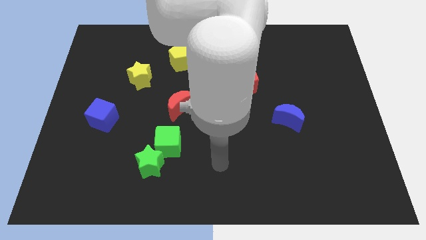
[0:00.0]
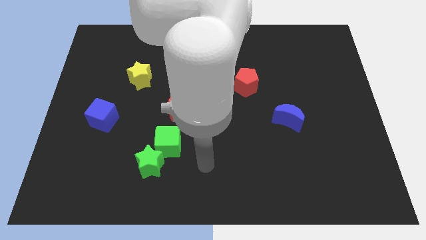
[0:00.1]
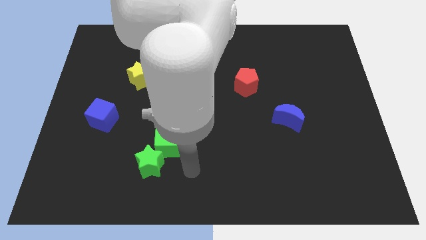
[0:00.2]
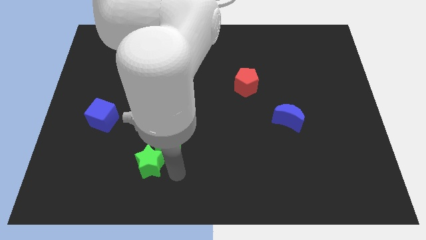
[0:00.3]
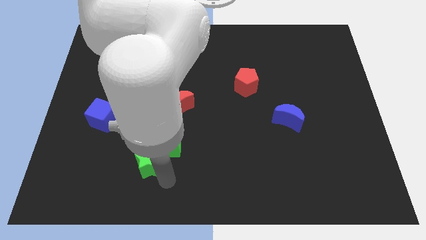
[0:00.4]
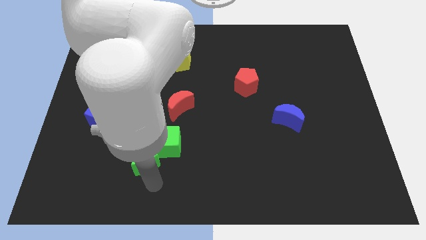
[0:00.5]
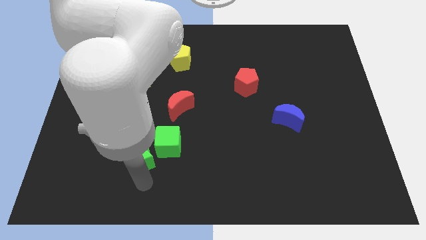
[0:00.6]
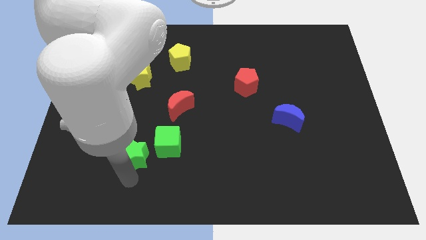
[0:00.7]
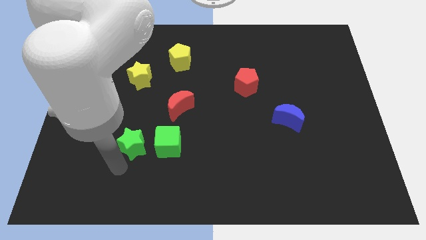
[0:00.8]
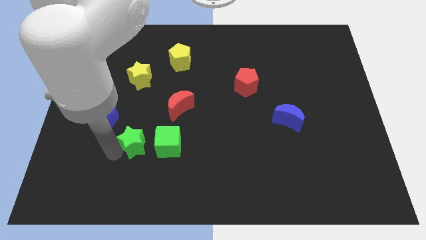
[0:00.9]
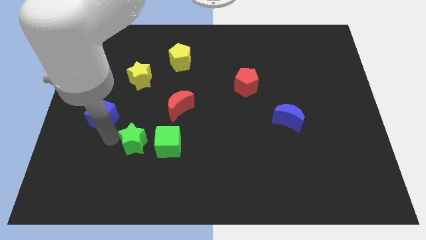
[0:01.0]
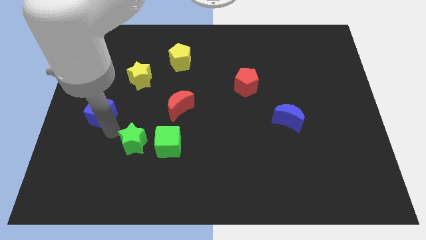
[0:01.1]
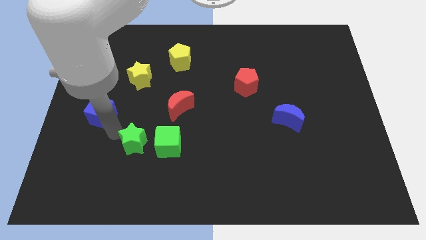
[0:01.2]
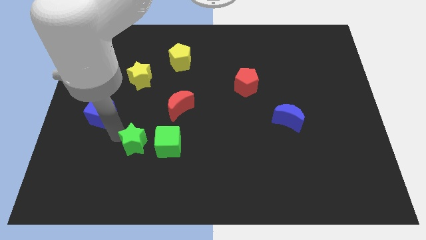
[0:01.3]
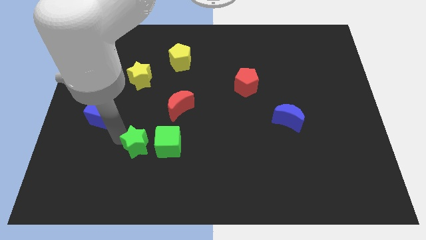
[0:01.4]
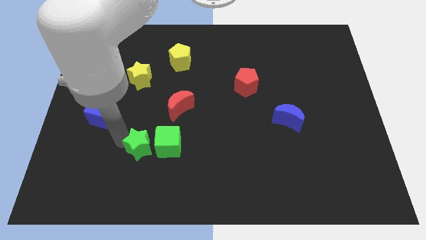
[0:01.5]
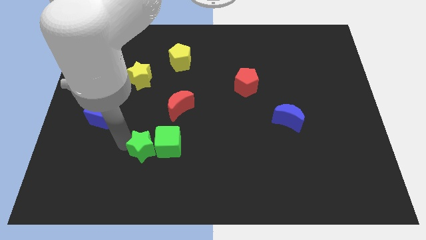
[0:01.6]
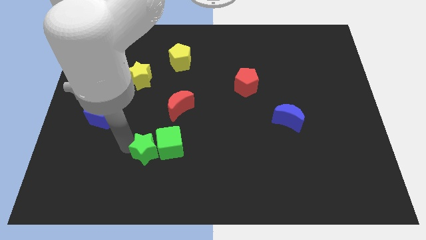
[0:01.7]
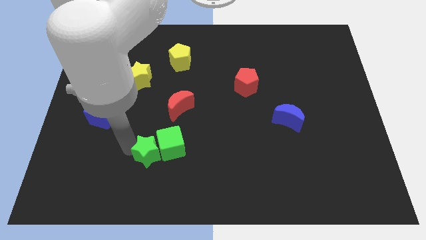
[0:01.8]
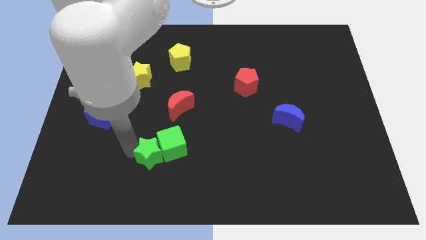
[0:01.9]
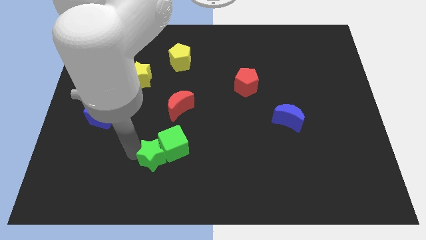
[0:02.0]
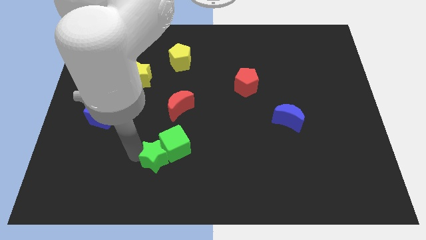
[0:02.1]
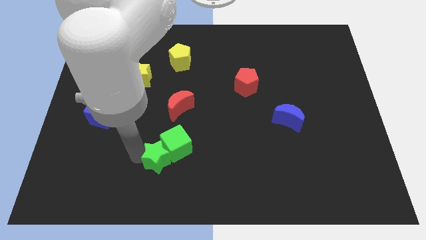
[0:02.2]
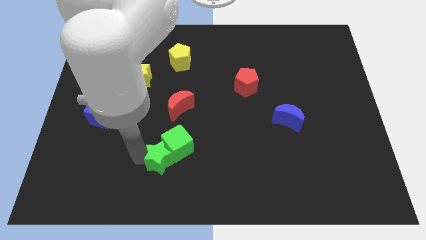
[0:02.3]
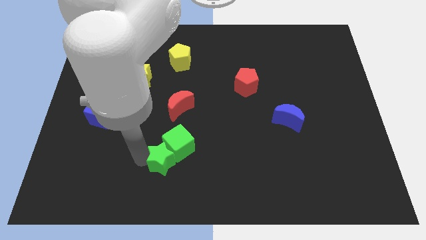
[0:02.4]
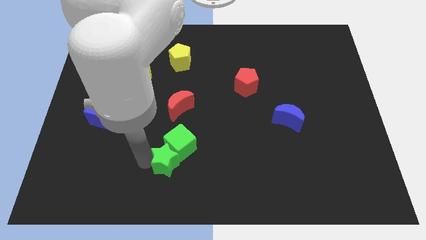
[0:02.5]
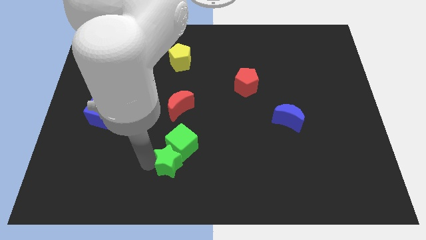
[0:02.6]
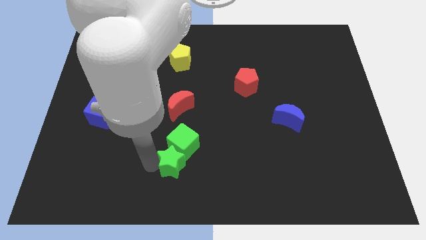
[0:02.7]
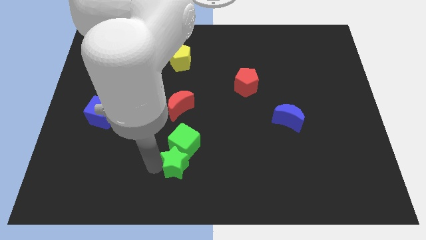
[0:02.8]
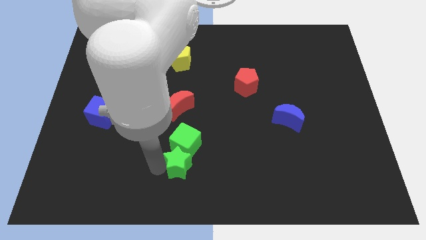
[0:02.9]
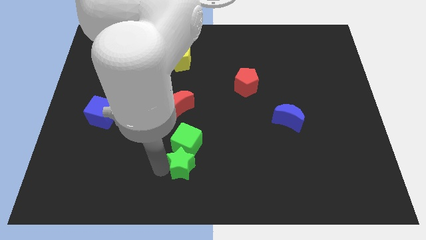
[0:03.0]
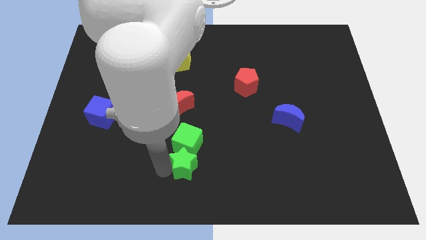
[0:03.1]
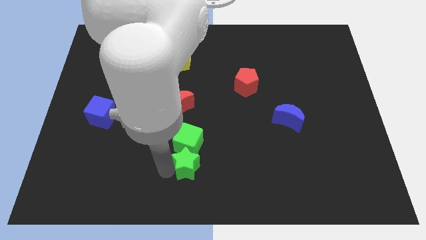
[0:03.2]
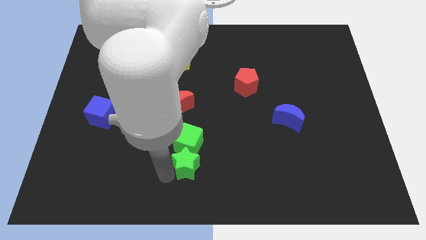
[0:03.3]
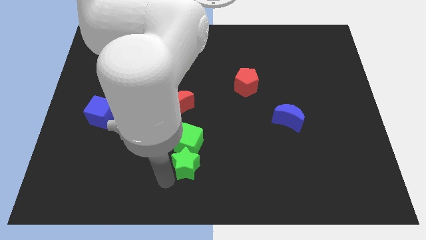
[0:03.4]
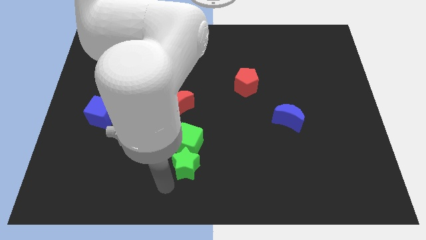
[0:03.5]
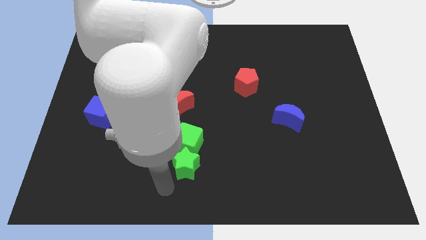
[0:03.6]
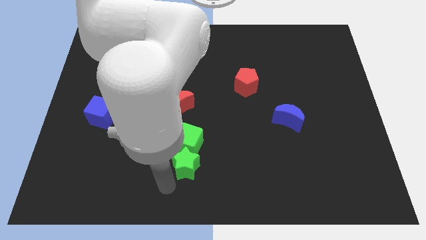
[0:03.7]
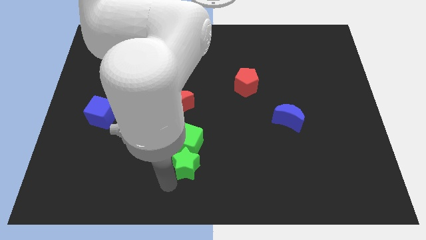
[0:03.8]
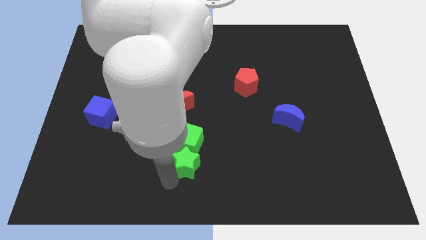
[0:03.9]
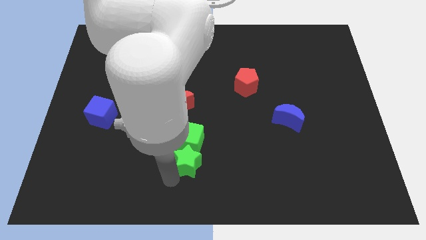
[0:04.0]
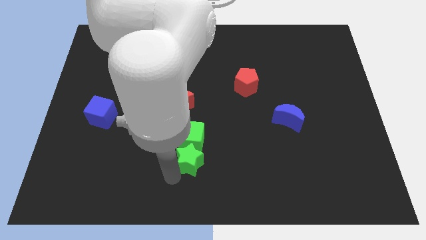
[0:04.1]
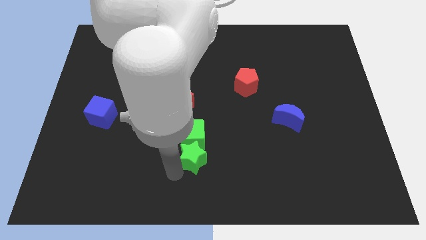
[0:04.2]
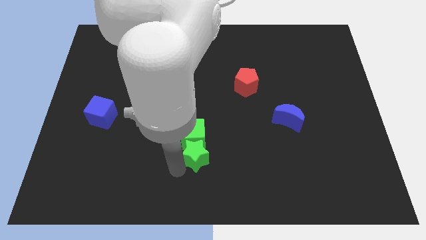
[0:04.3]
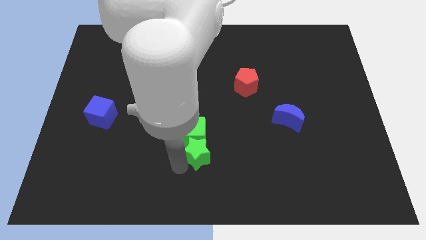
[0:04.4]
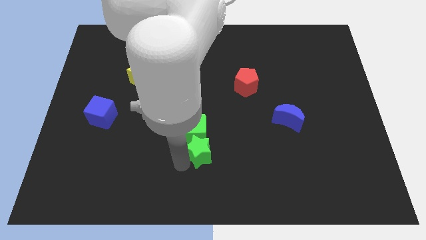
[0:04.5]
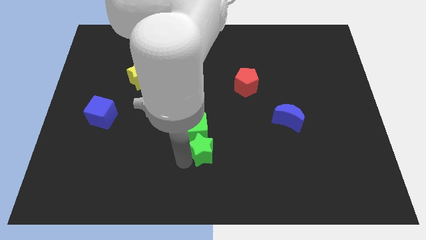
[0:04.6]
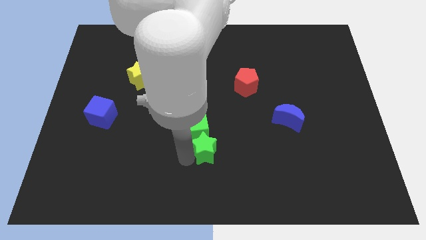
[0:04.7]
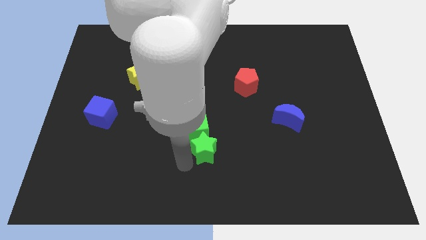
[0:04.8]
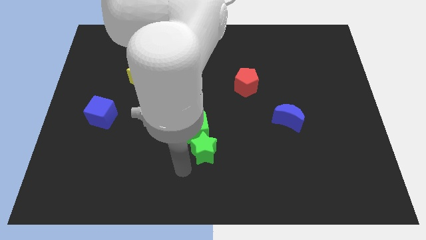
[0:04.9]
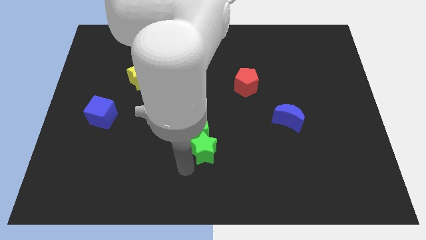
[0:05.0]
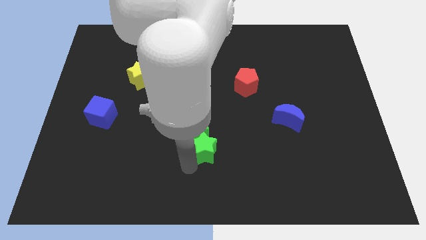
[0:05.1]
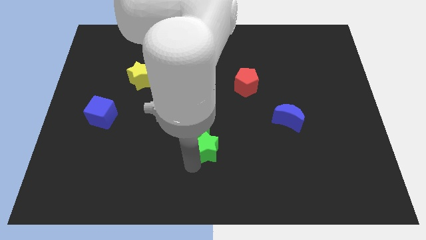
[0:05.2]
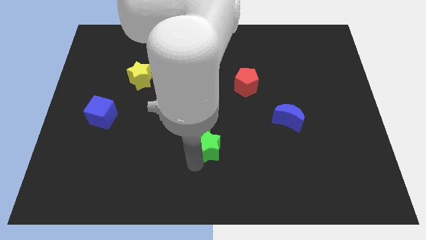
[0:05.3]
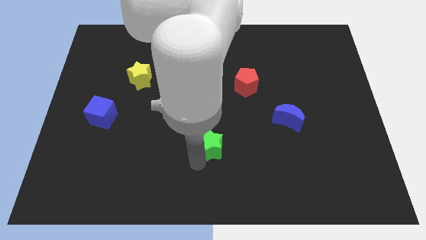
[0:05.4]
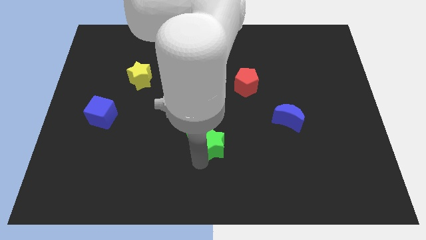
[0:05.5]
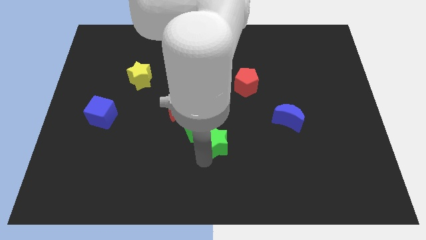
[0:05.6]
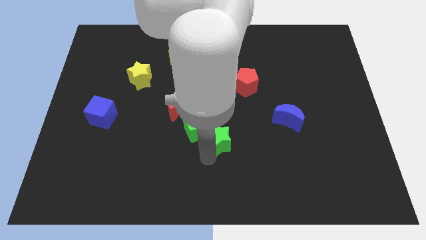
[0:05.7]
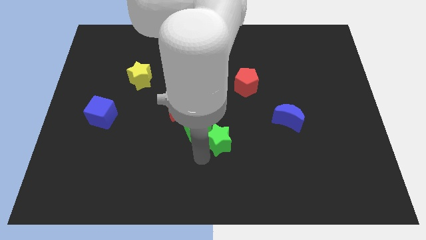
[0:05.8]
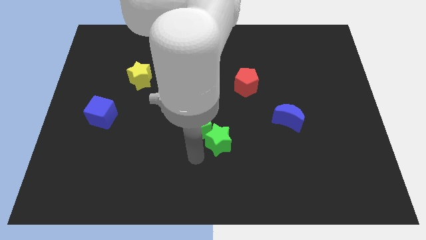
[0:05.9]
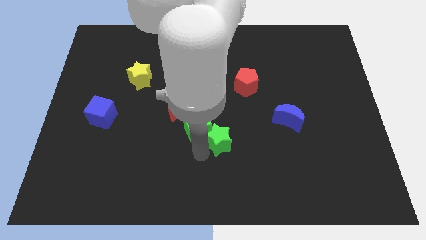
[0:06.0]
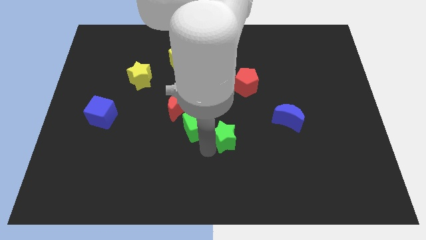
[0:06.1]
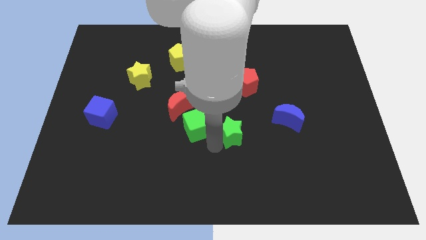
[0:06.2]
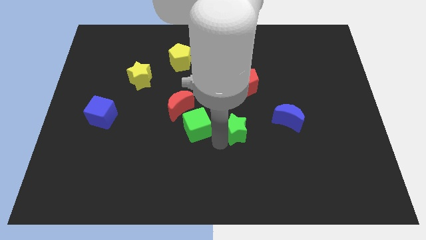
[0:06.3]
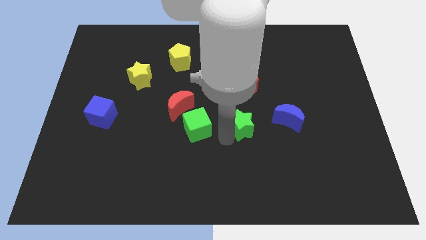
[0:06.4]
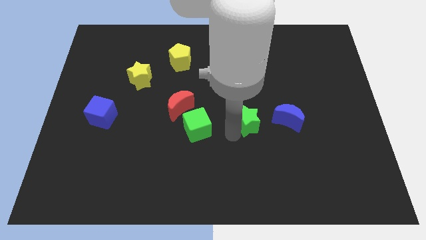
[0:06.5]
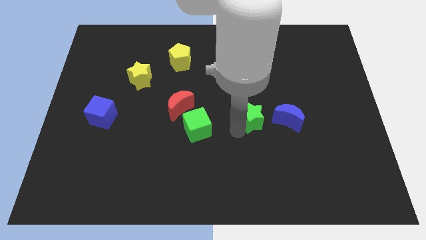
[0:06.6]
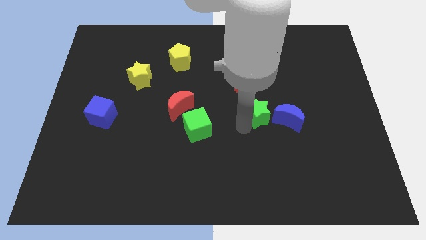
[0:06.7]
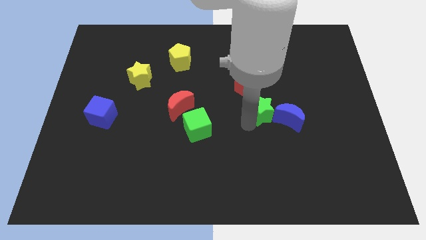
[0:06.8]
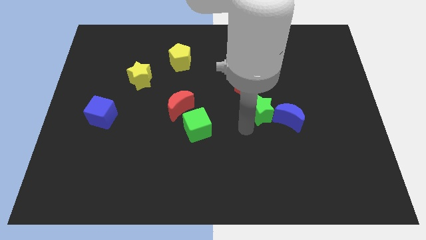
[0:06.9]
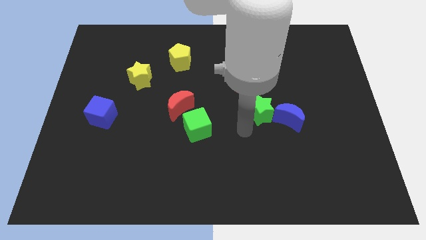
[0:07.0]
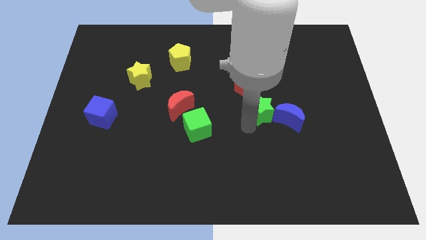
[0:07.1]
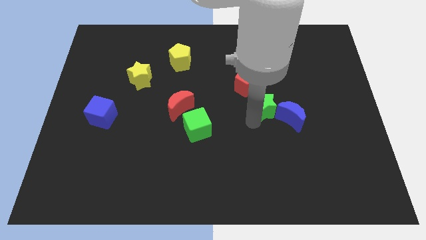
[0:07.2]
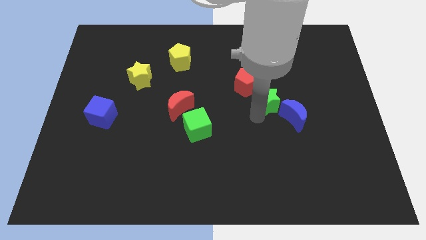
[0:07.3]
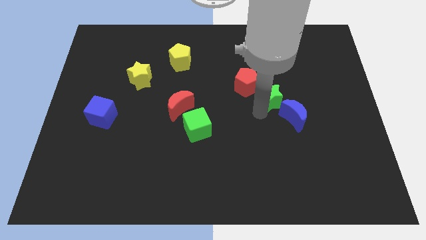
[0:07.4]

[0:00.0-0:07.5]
put the green star to the right side of the red pentagon
